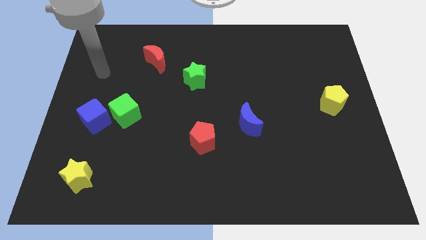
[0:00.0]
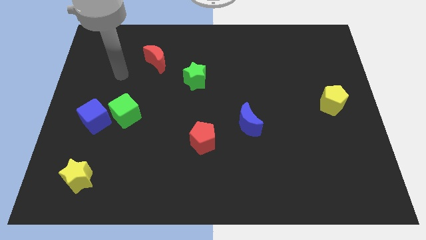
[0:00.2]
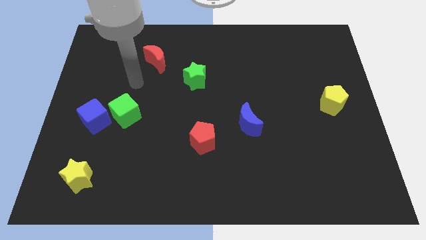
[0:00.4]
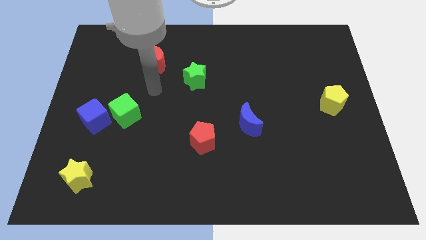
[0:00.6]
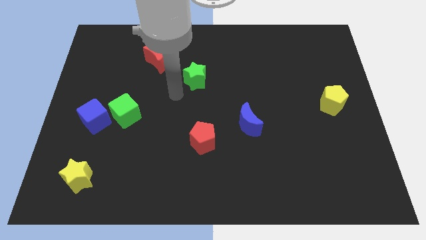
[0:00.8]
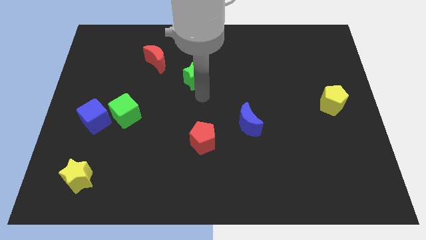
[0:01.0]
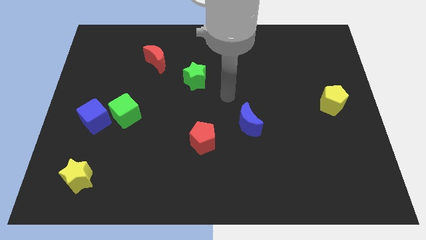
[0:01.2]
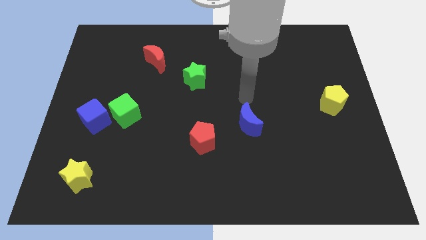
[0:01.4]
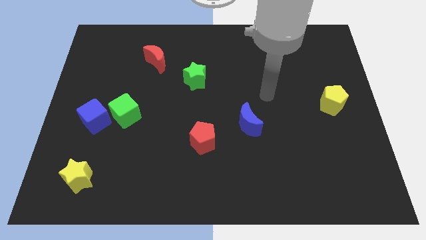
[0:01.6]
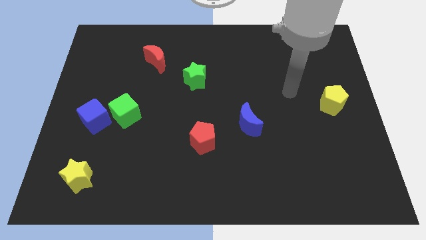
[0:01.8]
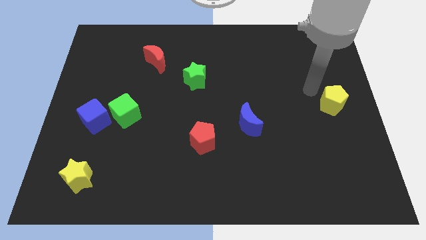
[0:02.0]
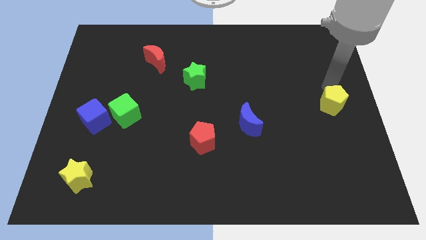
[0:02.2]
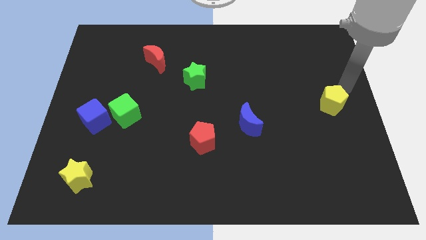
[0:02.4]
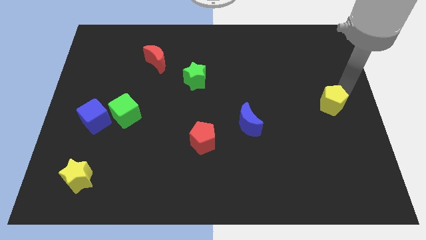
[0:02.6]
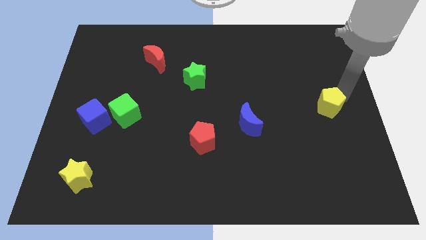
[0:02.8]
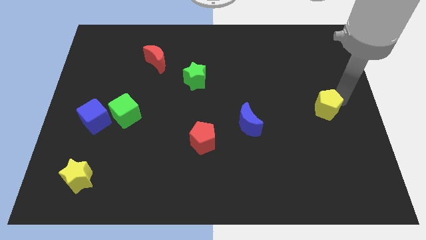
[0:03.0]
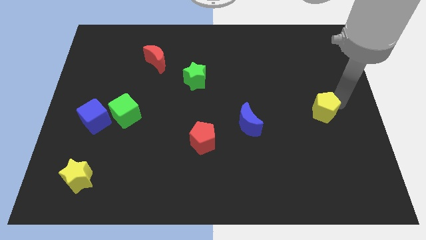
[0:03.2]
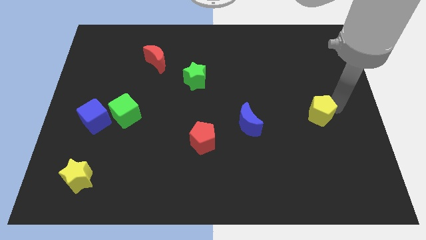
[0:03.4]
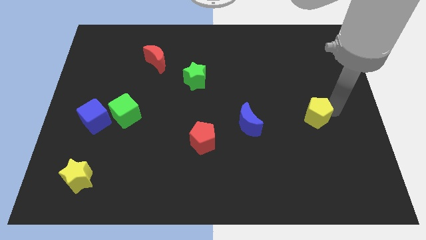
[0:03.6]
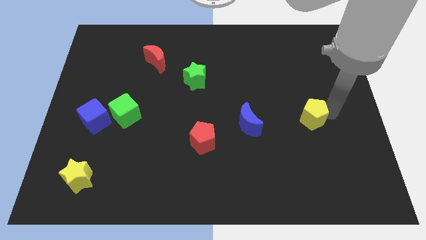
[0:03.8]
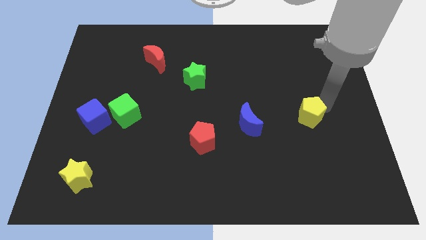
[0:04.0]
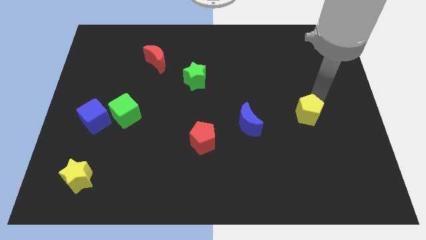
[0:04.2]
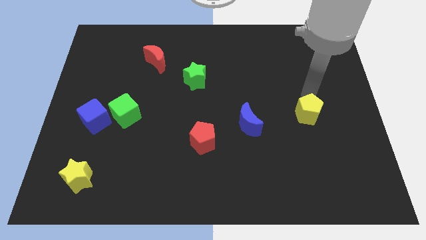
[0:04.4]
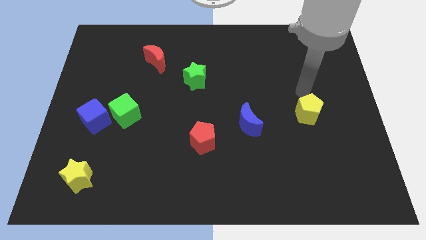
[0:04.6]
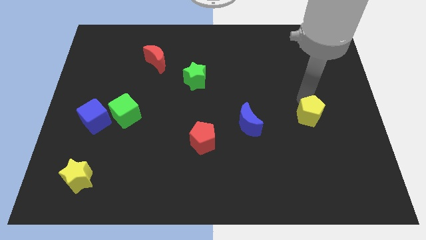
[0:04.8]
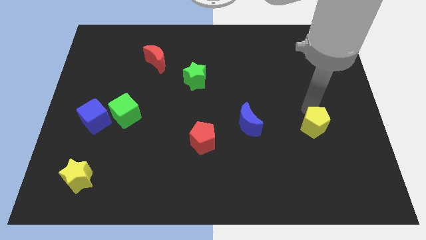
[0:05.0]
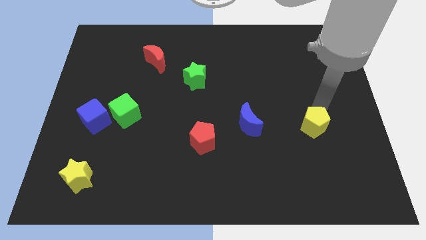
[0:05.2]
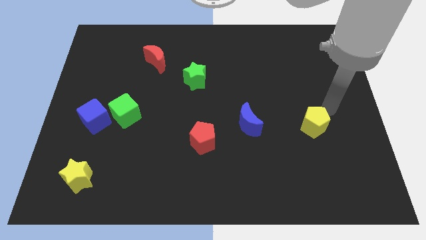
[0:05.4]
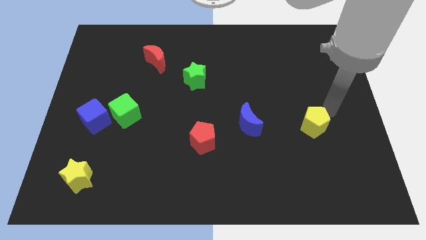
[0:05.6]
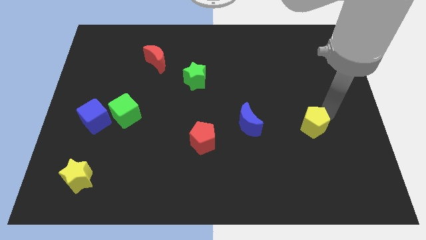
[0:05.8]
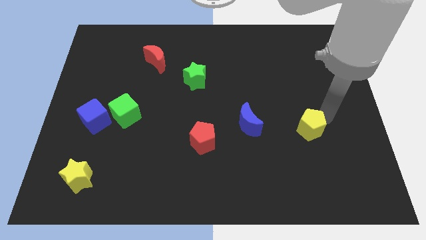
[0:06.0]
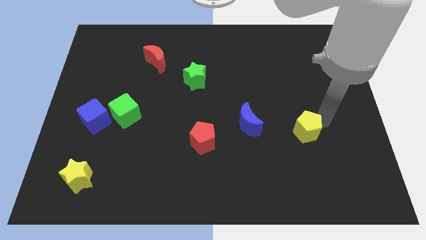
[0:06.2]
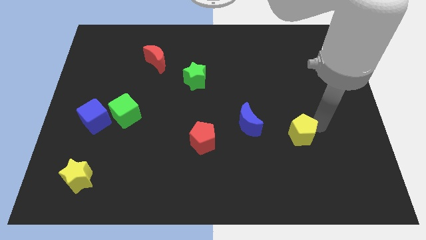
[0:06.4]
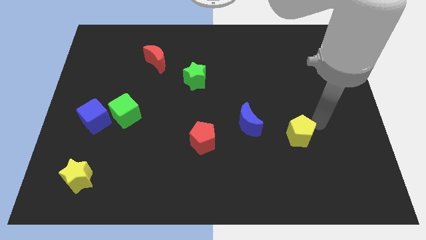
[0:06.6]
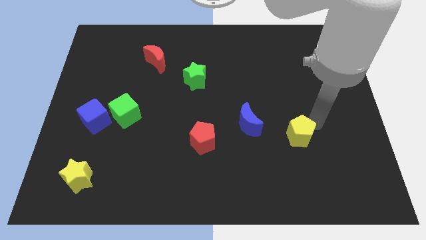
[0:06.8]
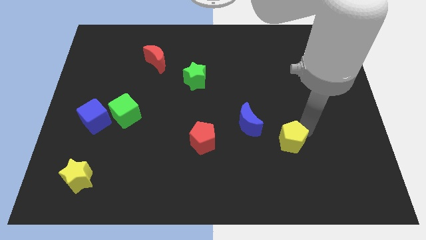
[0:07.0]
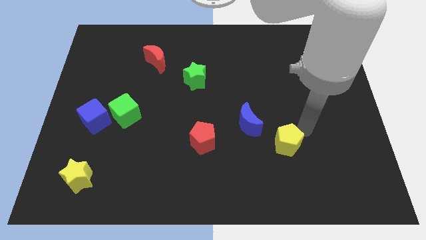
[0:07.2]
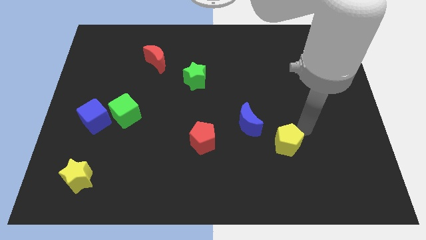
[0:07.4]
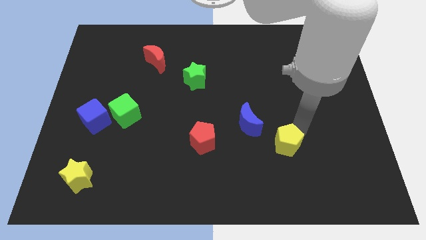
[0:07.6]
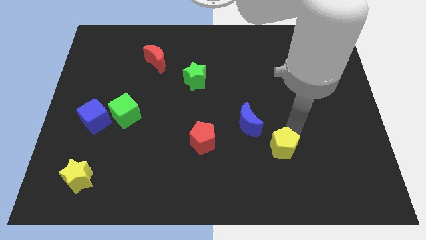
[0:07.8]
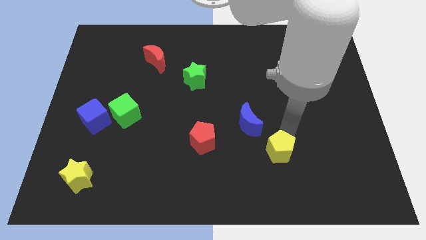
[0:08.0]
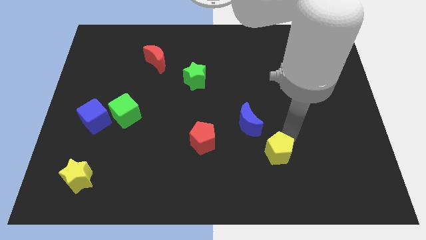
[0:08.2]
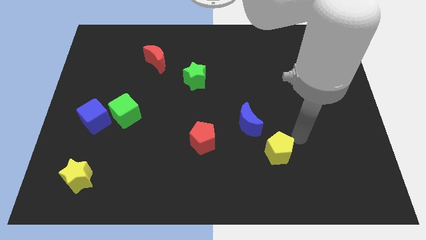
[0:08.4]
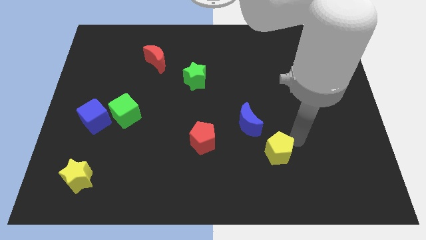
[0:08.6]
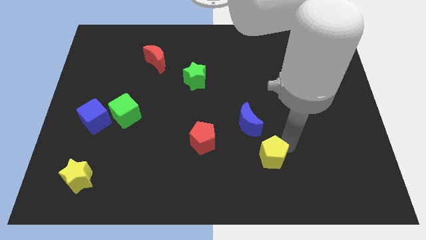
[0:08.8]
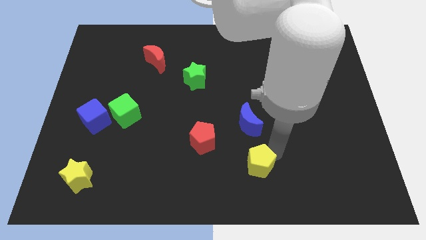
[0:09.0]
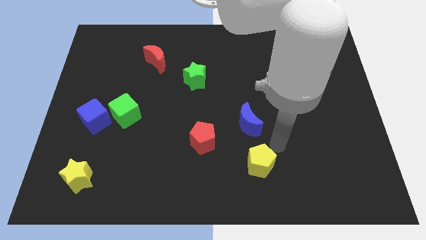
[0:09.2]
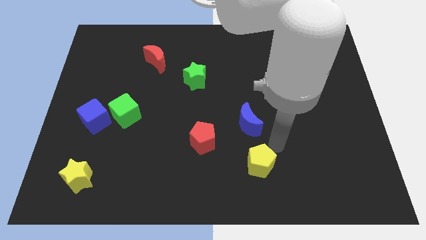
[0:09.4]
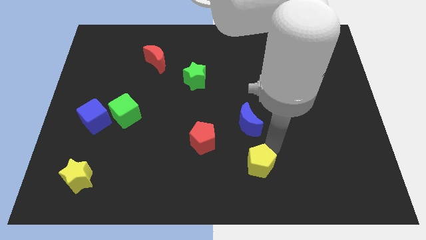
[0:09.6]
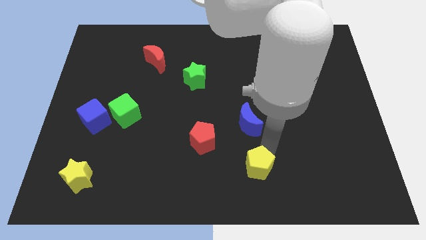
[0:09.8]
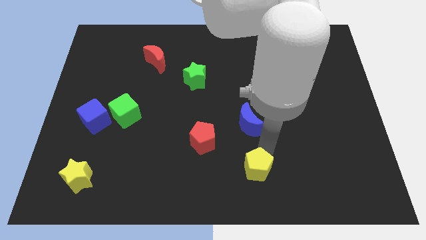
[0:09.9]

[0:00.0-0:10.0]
move the yellow pentagon to the bottom side
